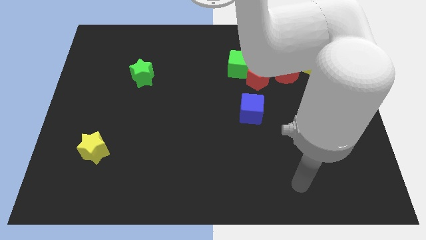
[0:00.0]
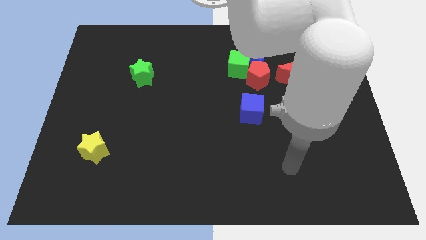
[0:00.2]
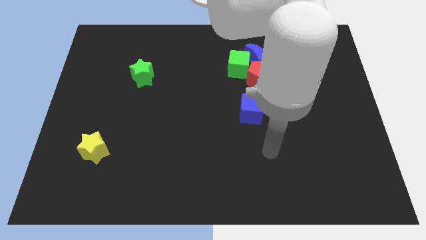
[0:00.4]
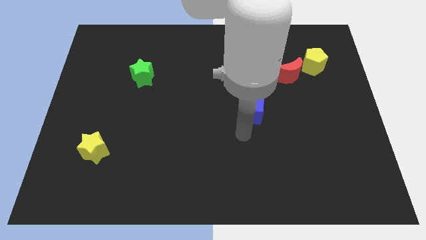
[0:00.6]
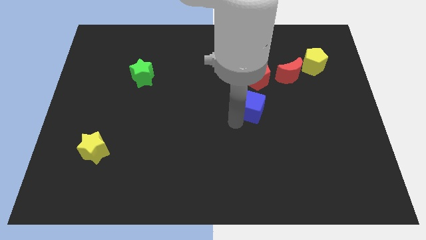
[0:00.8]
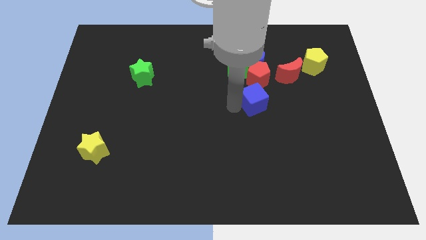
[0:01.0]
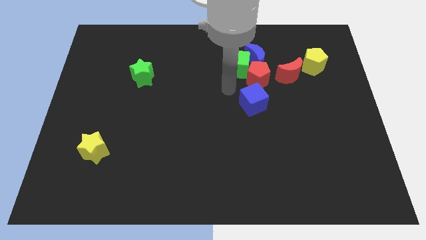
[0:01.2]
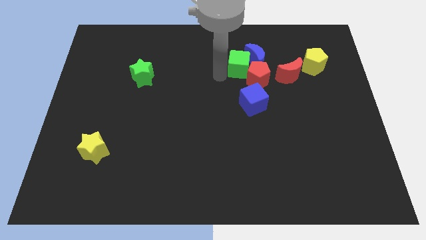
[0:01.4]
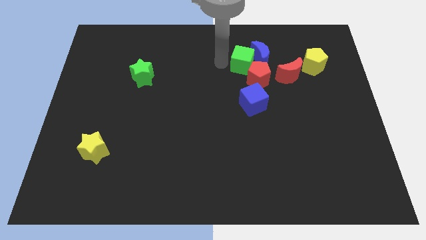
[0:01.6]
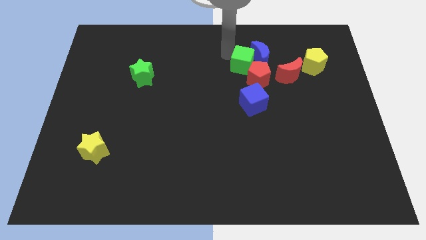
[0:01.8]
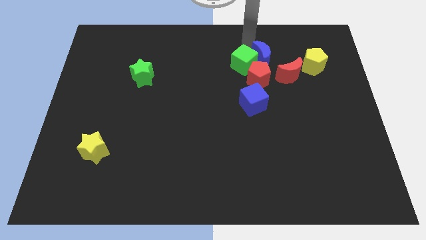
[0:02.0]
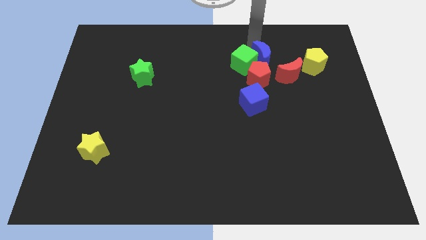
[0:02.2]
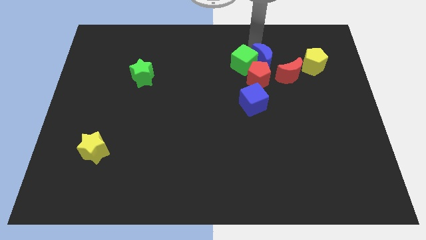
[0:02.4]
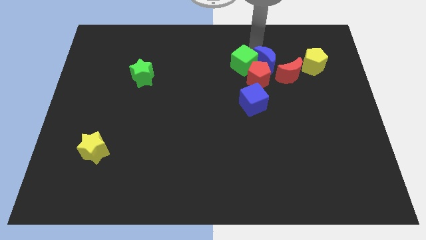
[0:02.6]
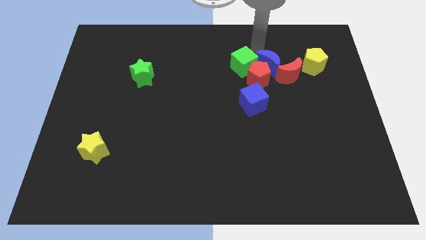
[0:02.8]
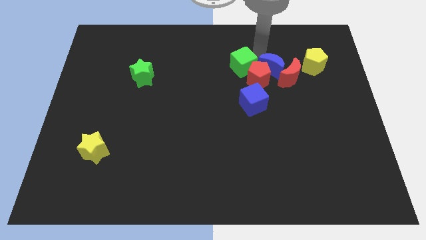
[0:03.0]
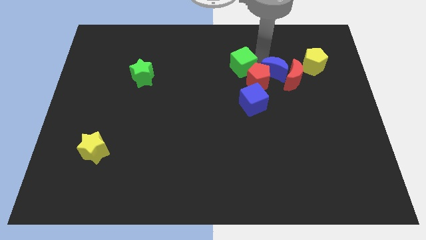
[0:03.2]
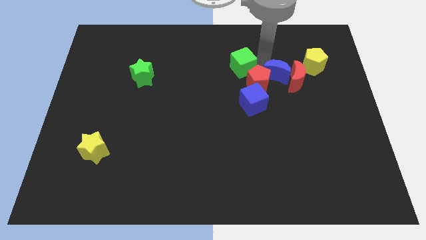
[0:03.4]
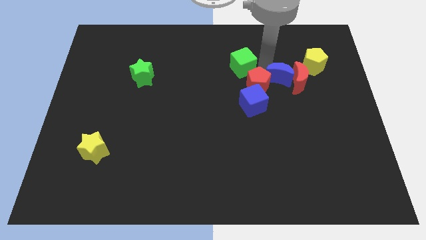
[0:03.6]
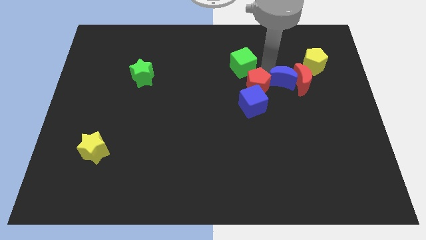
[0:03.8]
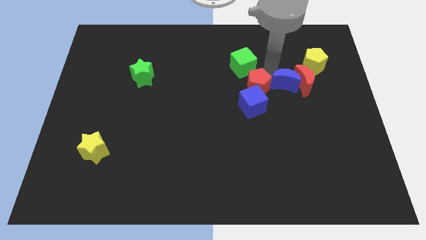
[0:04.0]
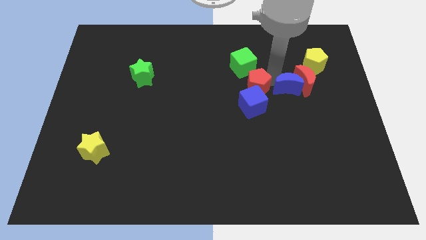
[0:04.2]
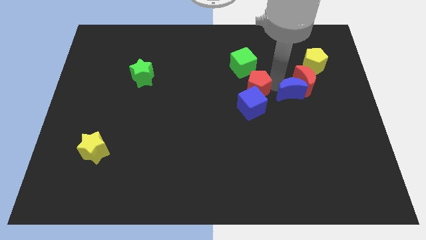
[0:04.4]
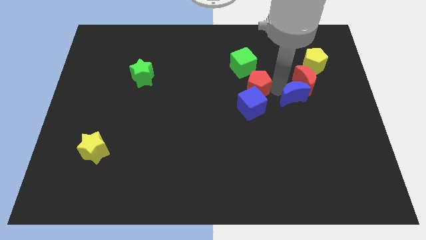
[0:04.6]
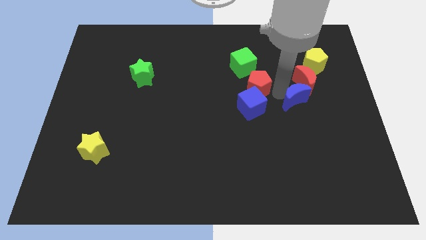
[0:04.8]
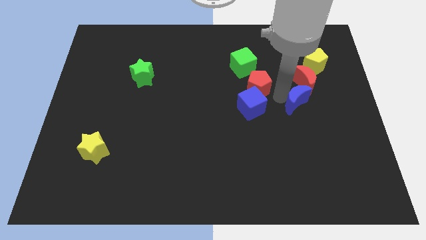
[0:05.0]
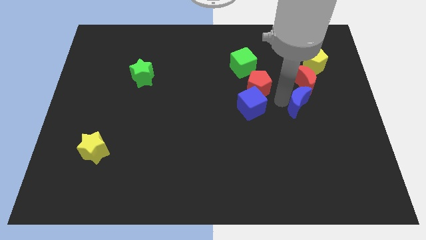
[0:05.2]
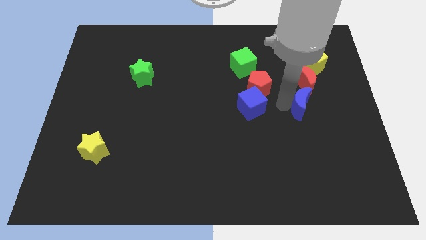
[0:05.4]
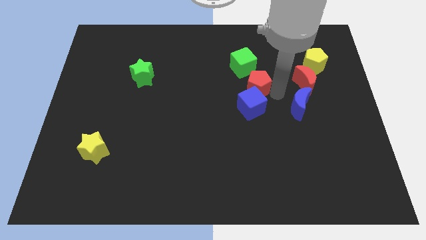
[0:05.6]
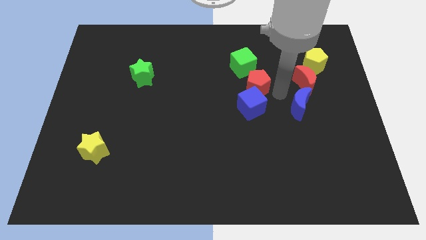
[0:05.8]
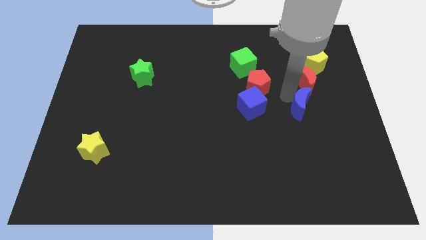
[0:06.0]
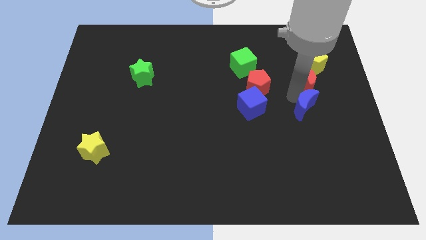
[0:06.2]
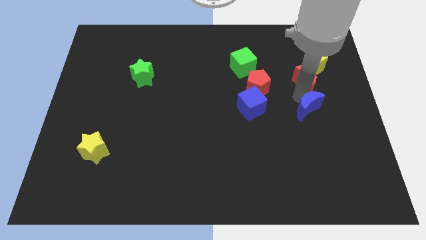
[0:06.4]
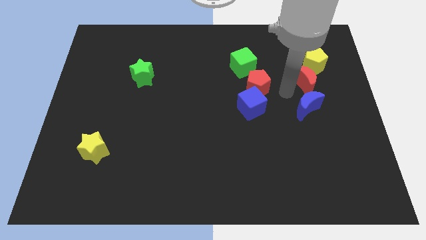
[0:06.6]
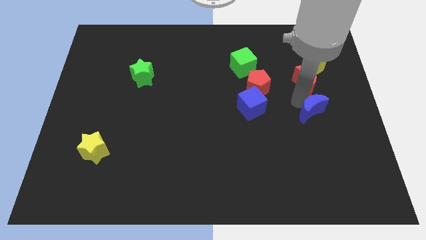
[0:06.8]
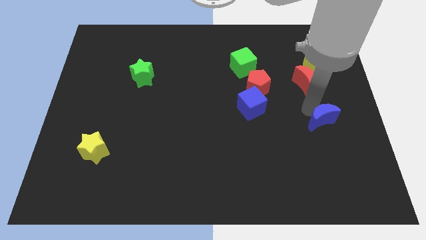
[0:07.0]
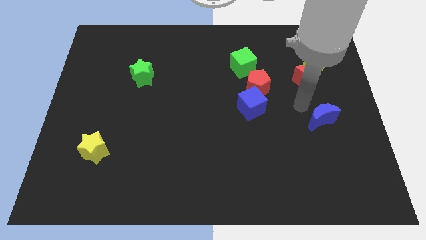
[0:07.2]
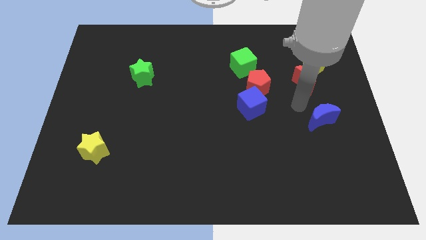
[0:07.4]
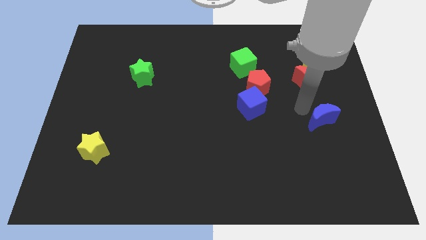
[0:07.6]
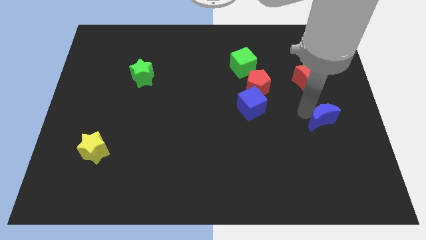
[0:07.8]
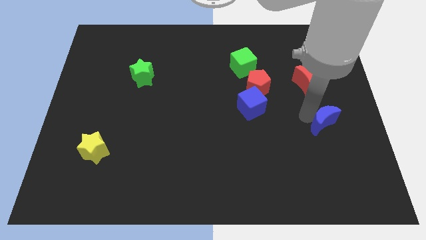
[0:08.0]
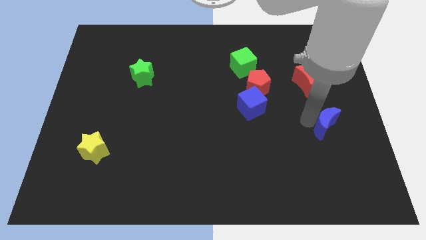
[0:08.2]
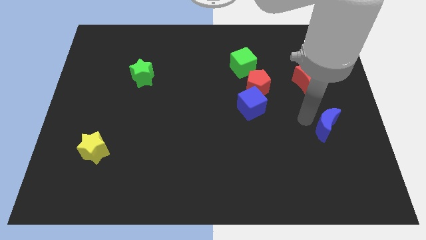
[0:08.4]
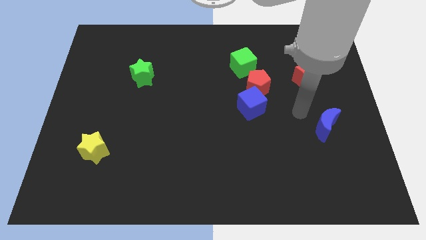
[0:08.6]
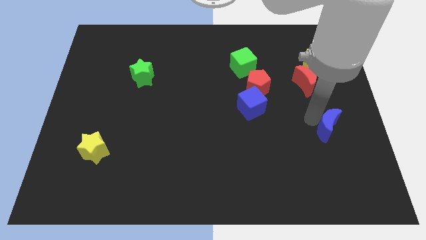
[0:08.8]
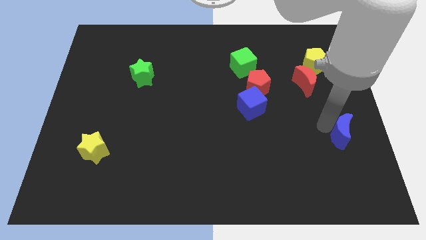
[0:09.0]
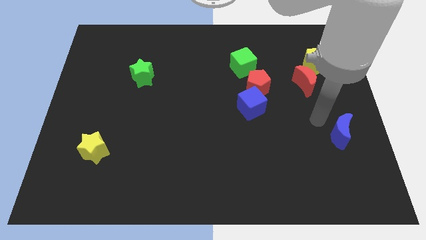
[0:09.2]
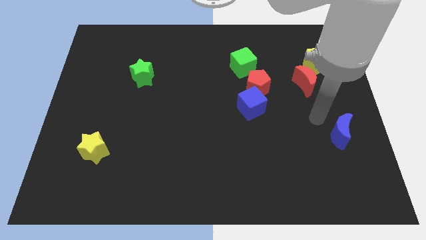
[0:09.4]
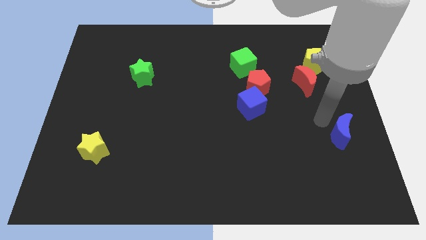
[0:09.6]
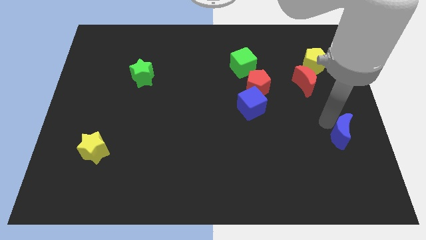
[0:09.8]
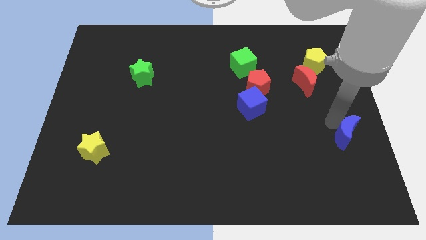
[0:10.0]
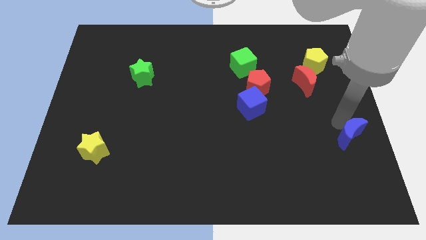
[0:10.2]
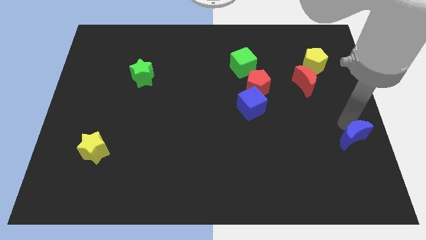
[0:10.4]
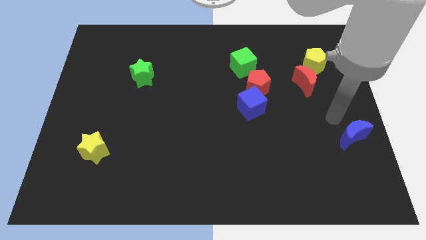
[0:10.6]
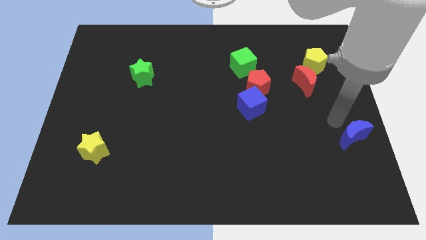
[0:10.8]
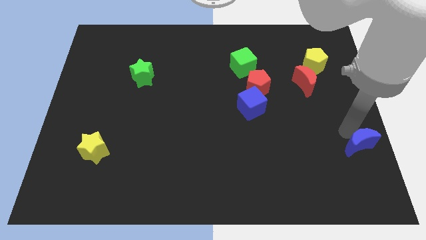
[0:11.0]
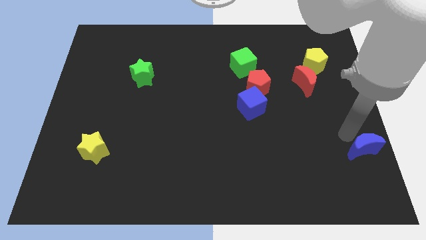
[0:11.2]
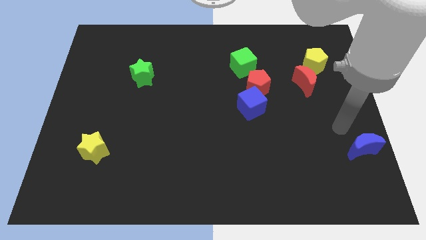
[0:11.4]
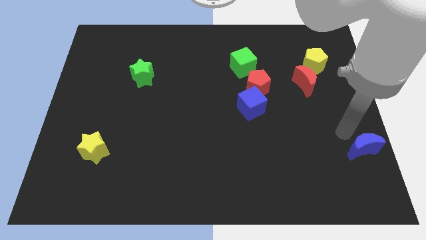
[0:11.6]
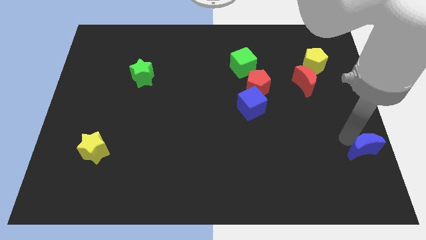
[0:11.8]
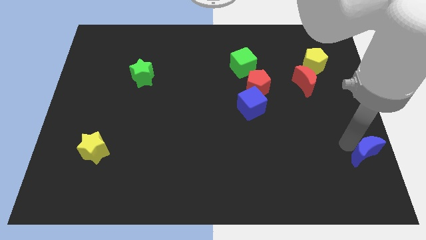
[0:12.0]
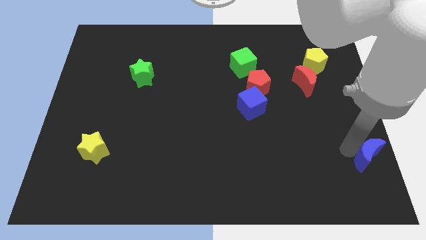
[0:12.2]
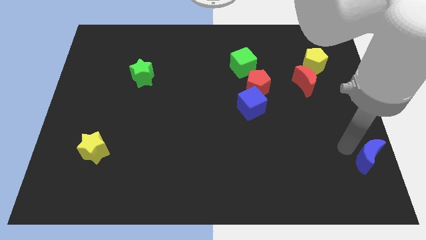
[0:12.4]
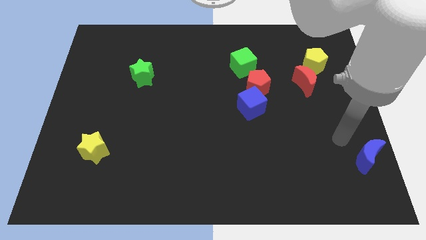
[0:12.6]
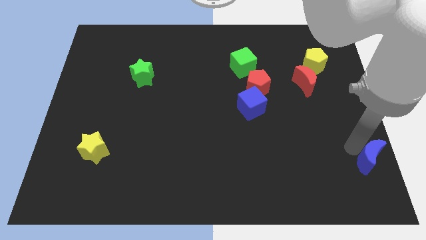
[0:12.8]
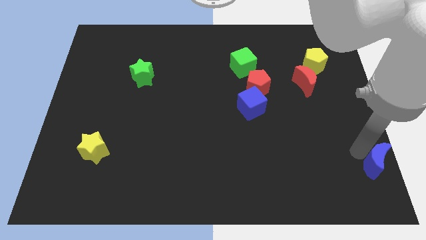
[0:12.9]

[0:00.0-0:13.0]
slide the blue moon to the bottom right of the board
